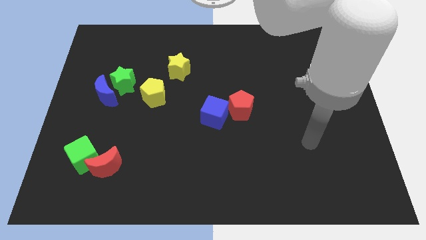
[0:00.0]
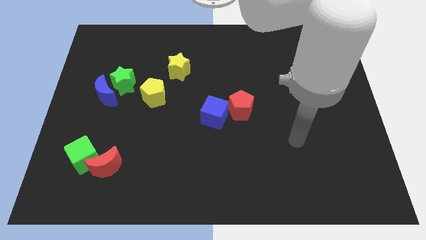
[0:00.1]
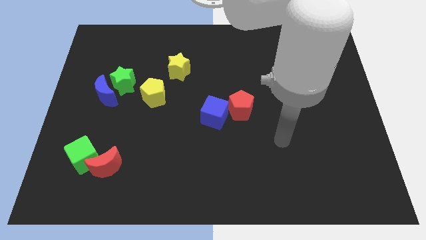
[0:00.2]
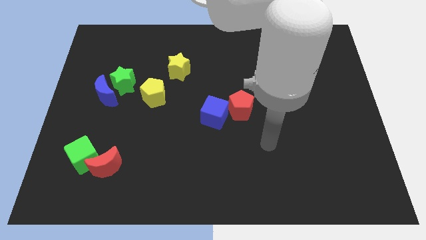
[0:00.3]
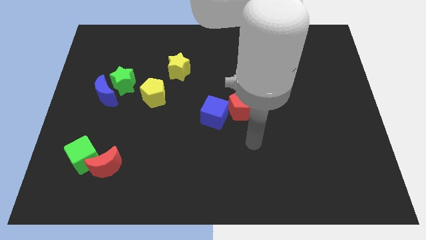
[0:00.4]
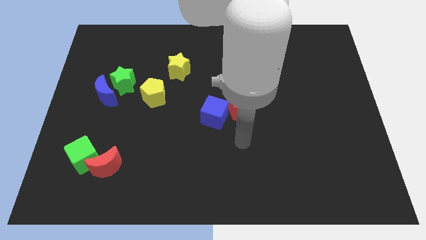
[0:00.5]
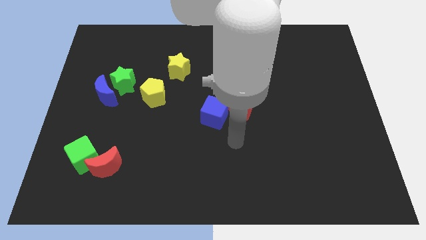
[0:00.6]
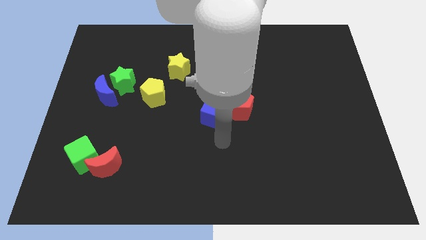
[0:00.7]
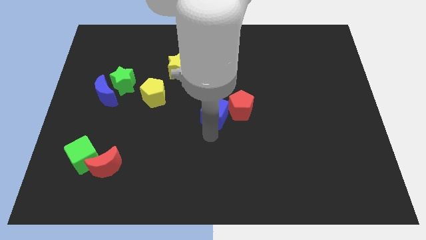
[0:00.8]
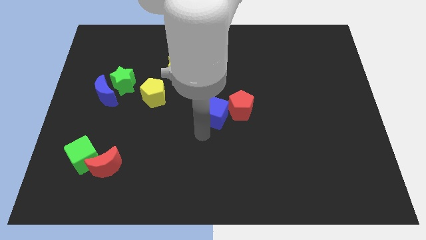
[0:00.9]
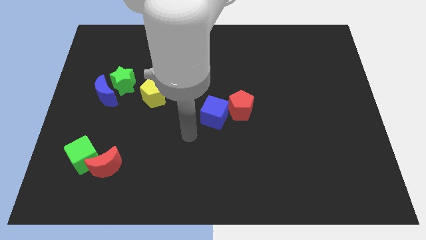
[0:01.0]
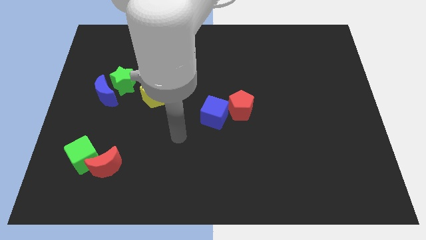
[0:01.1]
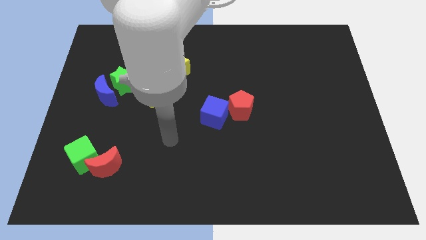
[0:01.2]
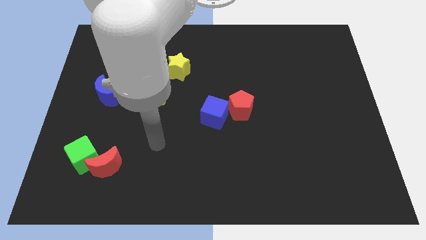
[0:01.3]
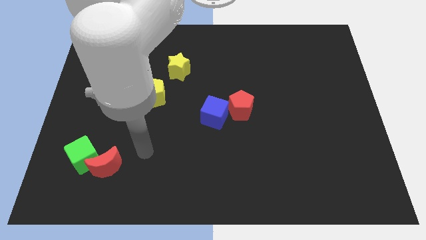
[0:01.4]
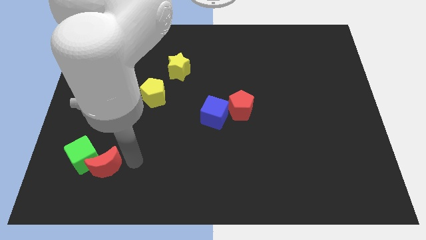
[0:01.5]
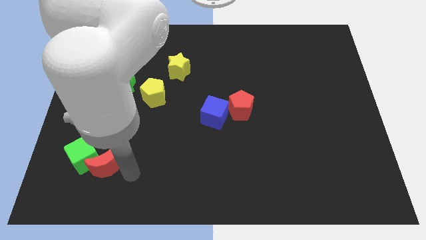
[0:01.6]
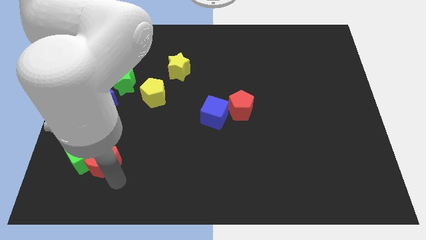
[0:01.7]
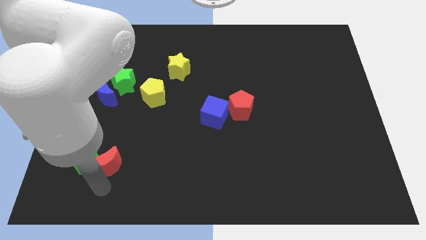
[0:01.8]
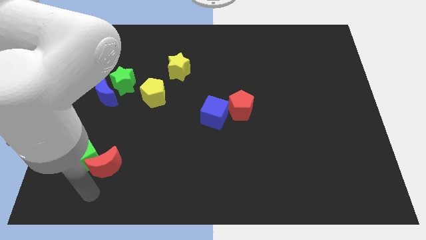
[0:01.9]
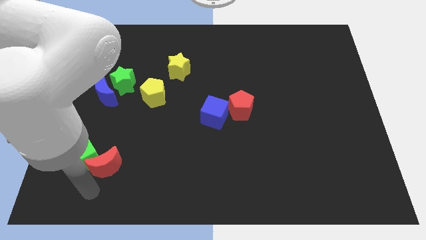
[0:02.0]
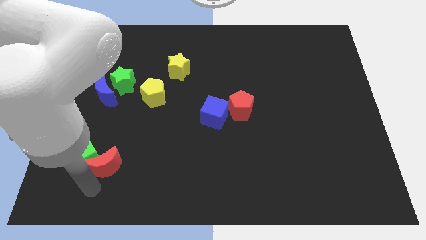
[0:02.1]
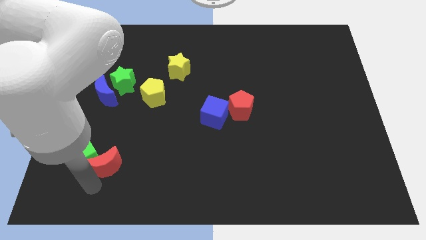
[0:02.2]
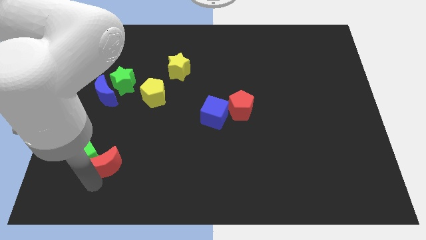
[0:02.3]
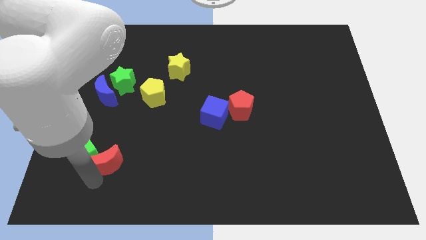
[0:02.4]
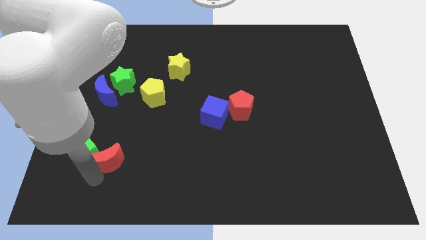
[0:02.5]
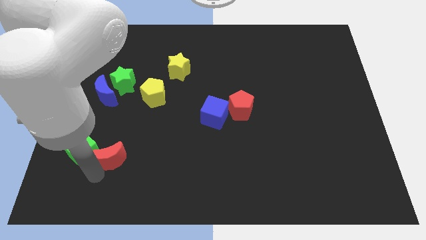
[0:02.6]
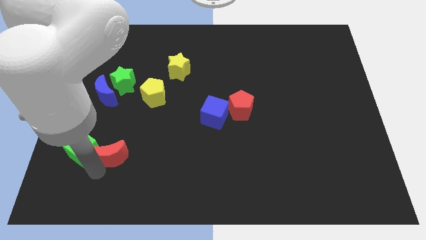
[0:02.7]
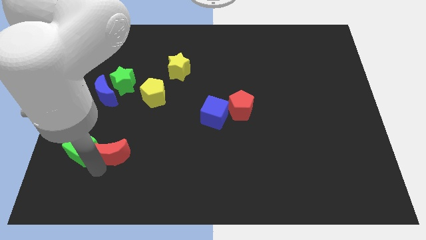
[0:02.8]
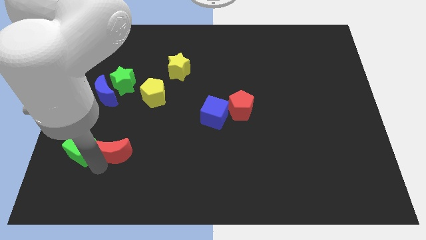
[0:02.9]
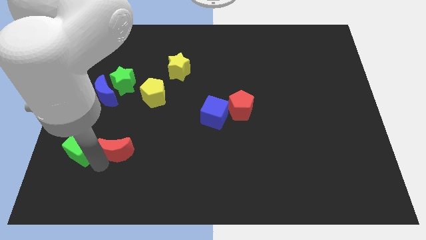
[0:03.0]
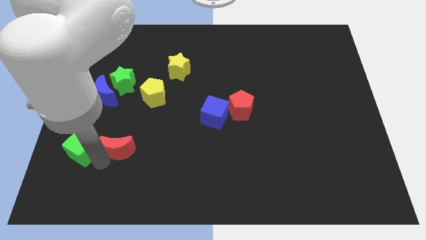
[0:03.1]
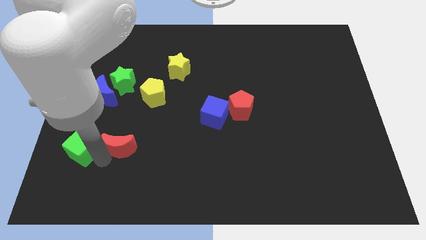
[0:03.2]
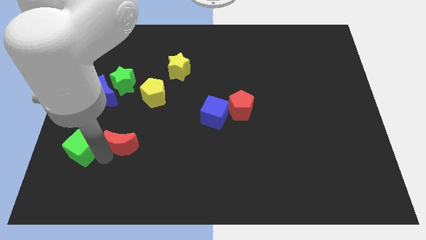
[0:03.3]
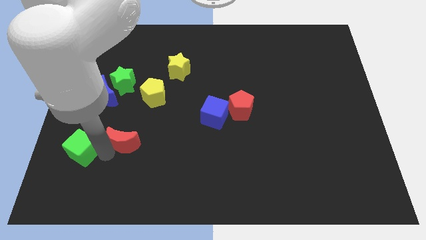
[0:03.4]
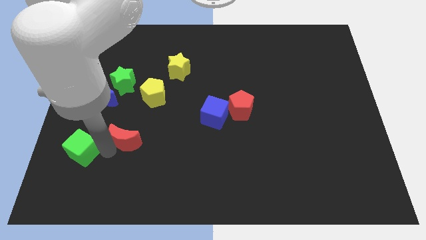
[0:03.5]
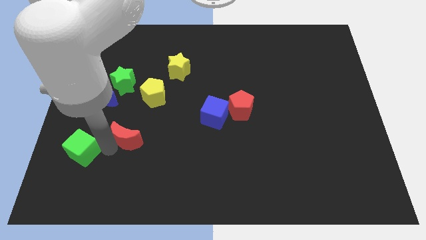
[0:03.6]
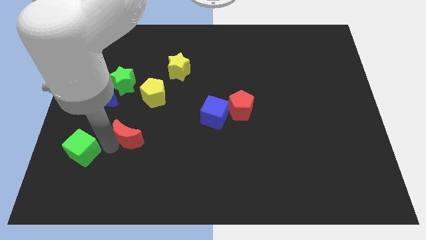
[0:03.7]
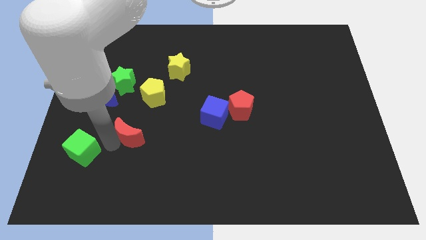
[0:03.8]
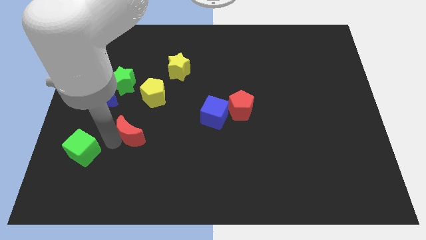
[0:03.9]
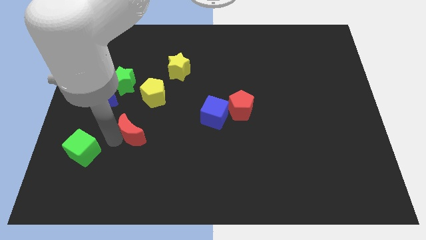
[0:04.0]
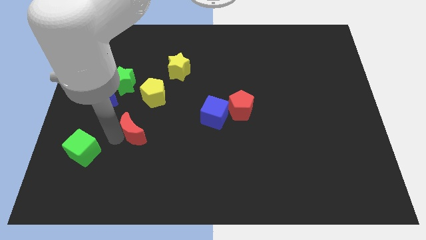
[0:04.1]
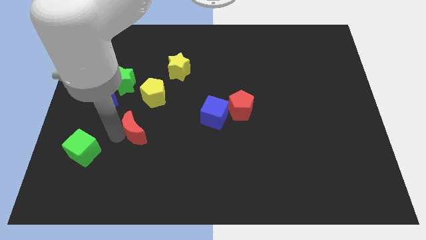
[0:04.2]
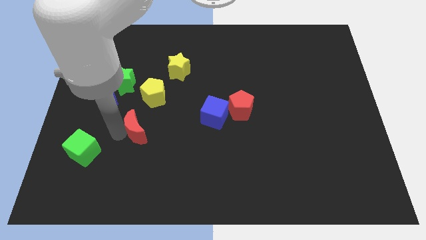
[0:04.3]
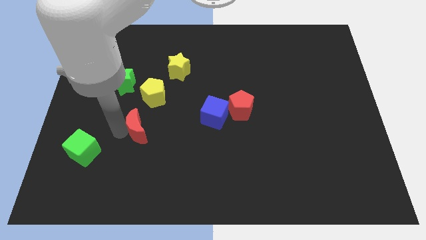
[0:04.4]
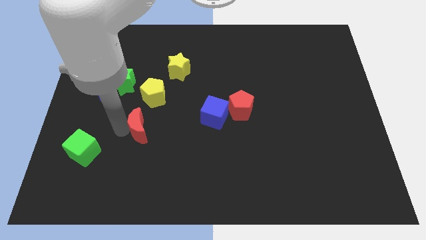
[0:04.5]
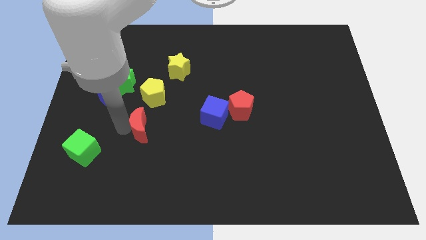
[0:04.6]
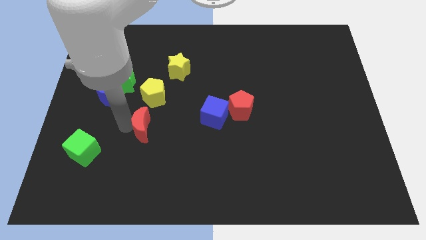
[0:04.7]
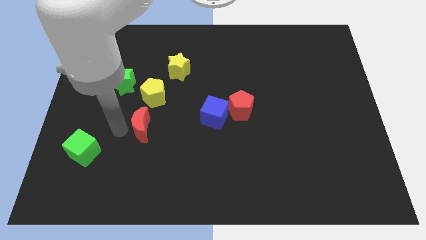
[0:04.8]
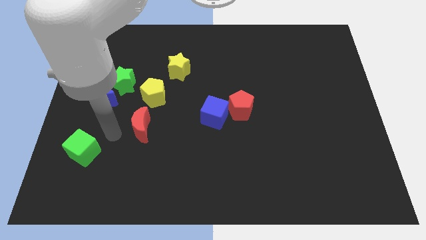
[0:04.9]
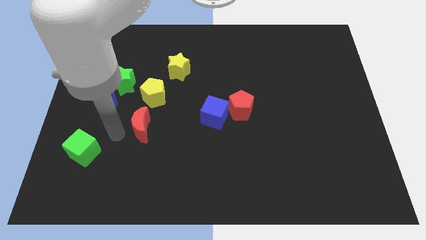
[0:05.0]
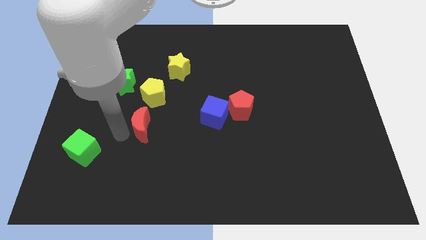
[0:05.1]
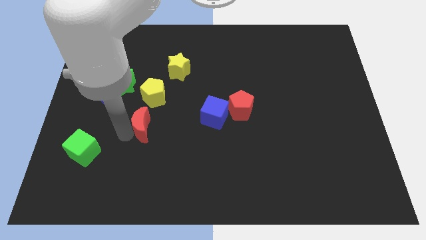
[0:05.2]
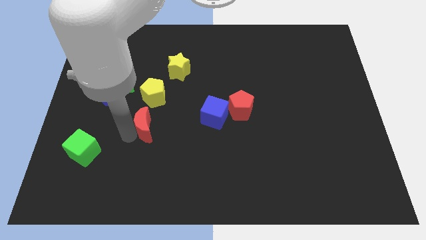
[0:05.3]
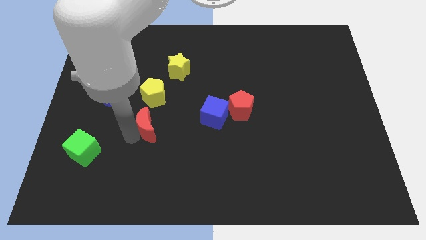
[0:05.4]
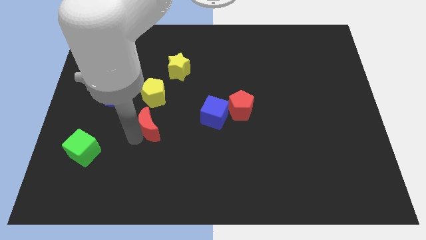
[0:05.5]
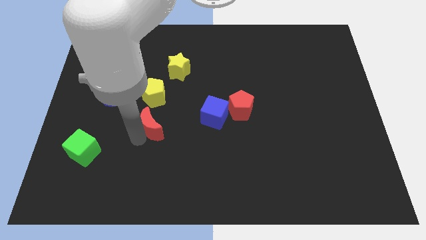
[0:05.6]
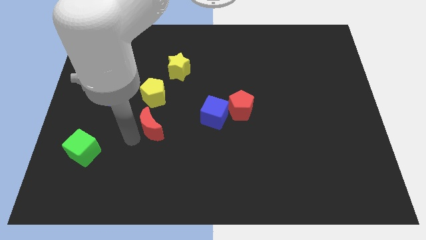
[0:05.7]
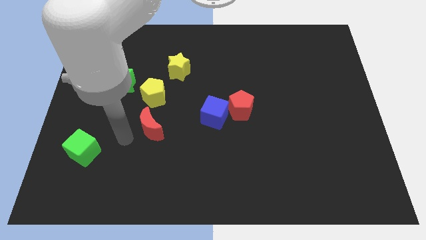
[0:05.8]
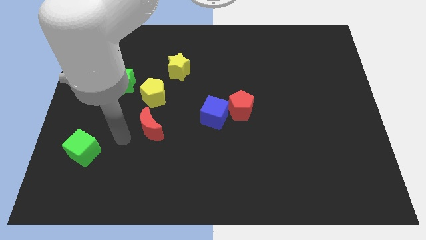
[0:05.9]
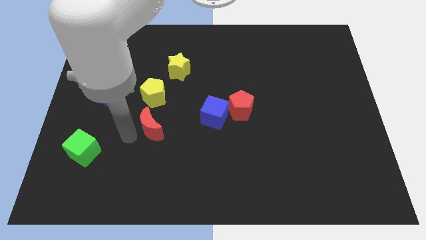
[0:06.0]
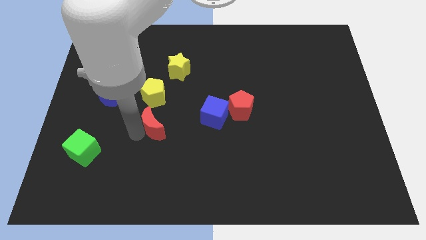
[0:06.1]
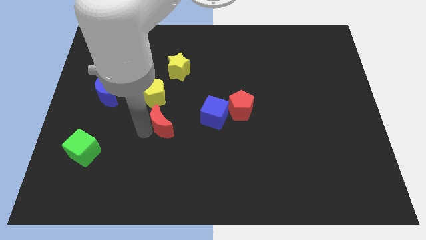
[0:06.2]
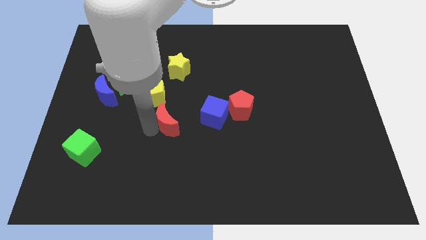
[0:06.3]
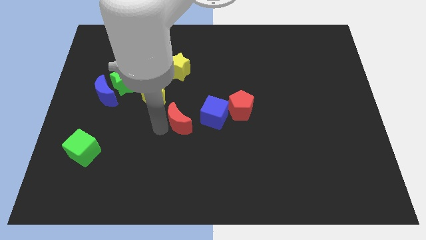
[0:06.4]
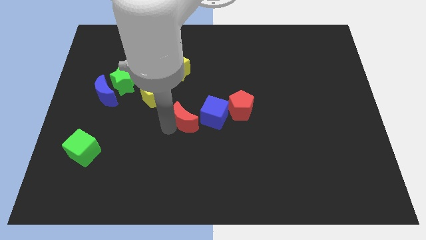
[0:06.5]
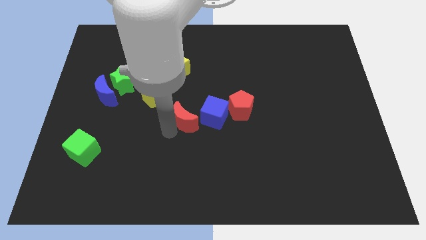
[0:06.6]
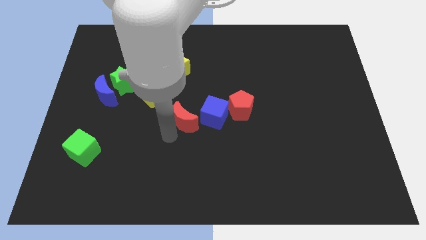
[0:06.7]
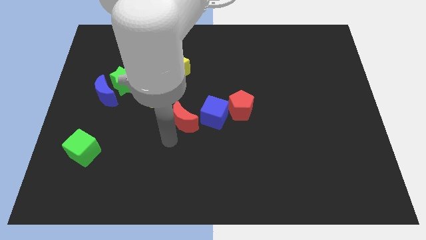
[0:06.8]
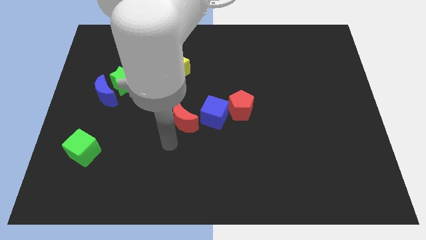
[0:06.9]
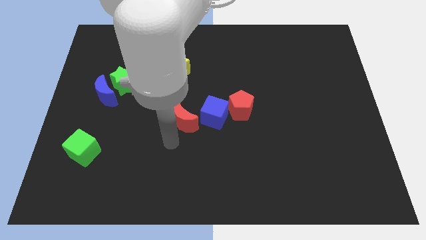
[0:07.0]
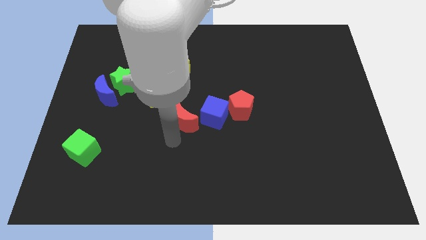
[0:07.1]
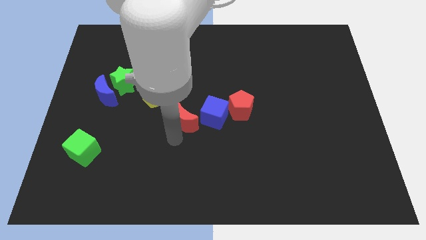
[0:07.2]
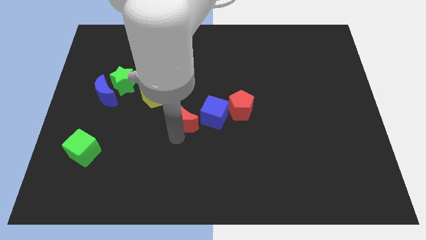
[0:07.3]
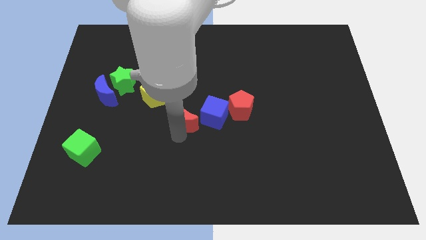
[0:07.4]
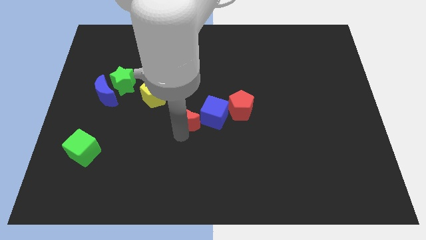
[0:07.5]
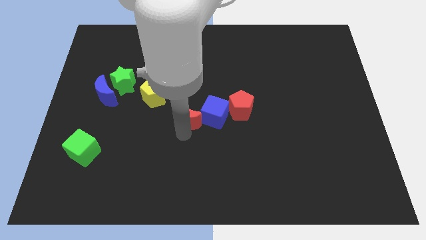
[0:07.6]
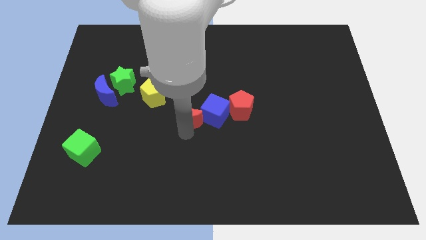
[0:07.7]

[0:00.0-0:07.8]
move the red moon upwards and right

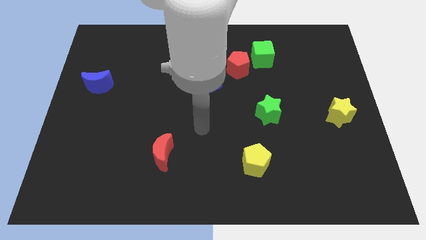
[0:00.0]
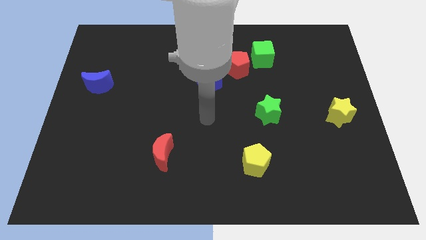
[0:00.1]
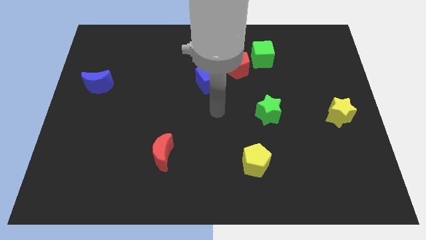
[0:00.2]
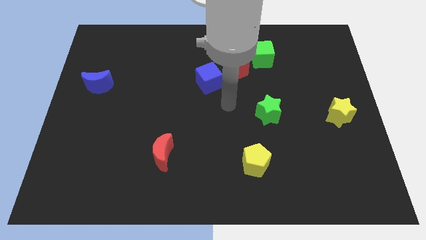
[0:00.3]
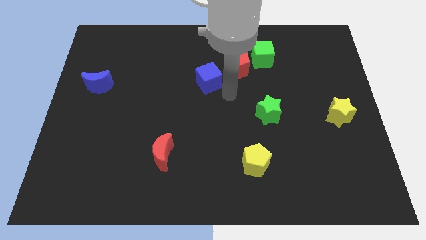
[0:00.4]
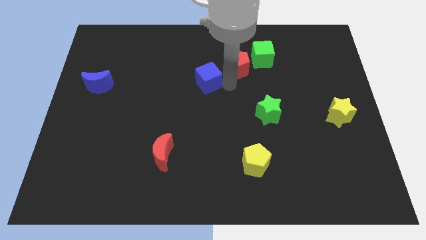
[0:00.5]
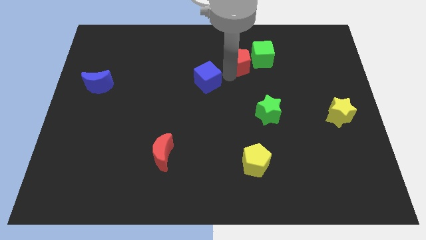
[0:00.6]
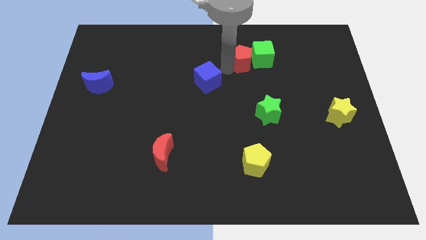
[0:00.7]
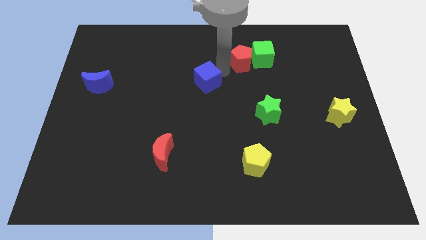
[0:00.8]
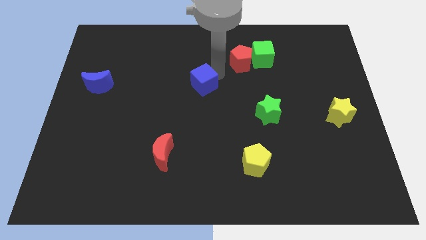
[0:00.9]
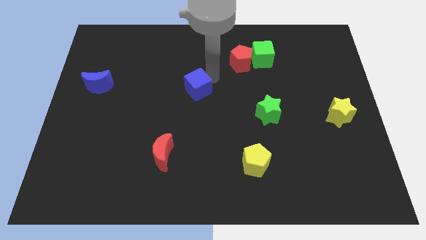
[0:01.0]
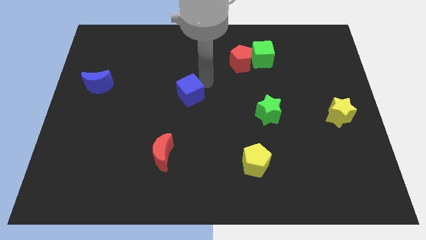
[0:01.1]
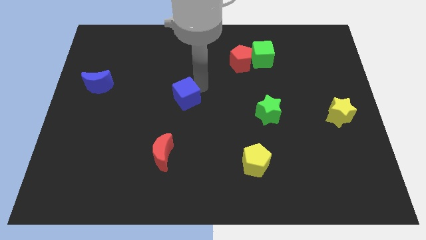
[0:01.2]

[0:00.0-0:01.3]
move the blue cube downwards and to the left diagonally a bit
